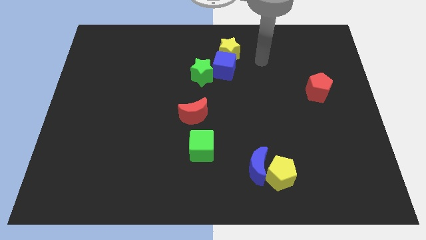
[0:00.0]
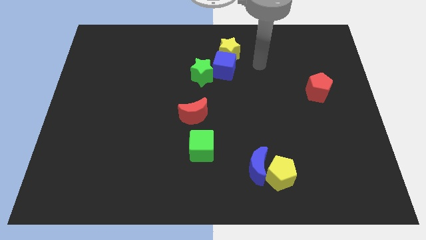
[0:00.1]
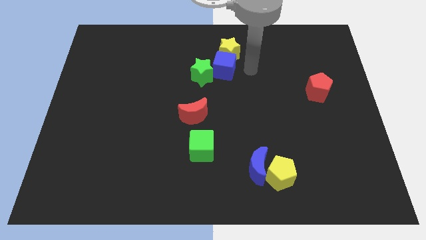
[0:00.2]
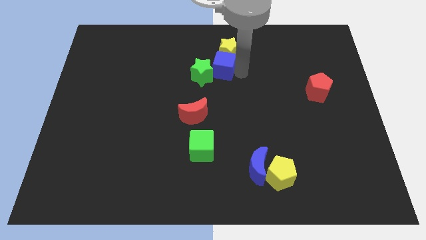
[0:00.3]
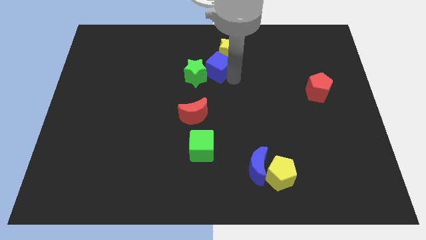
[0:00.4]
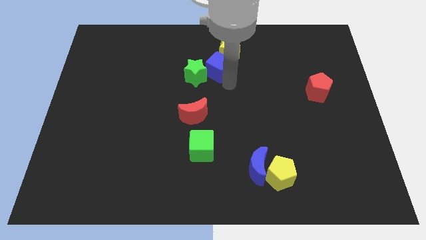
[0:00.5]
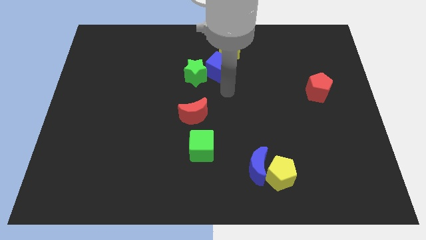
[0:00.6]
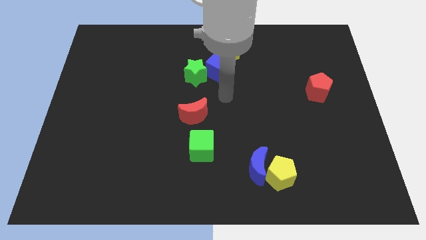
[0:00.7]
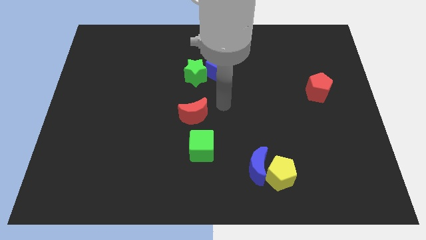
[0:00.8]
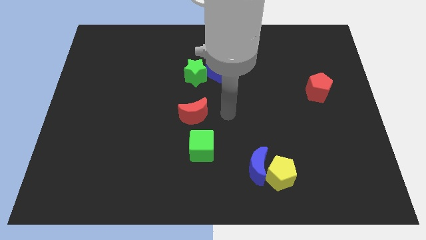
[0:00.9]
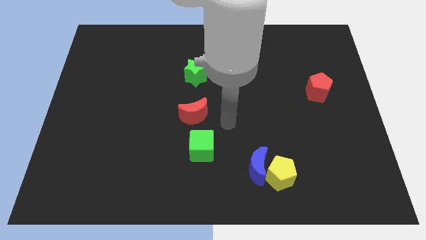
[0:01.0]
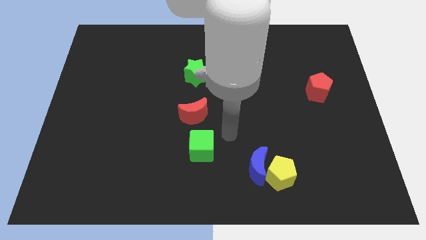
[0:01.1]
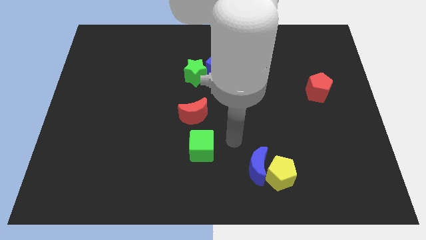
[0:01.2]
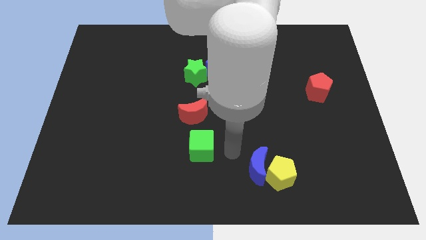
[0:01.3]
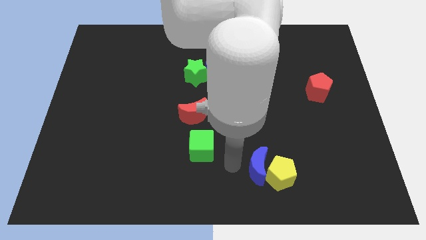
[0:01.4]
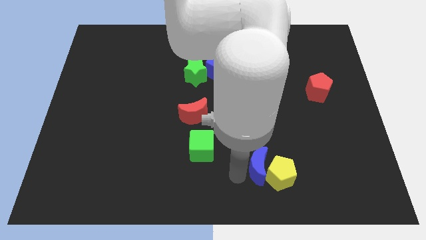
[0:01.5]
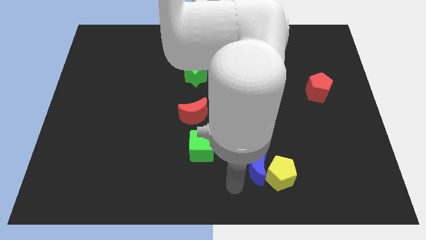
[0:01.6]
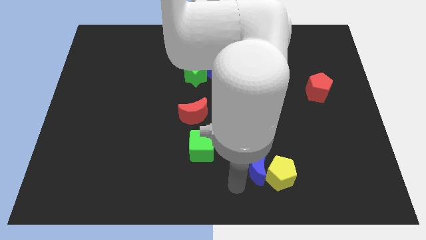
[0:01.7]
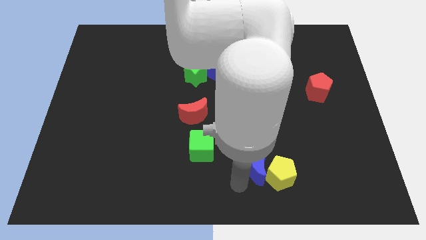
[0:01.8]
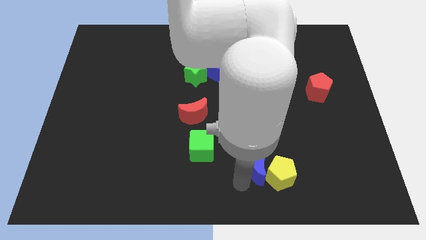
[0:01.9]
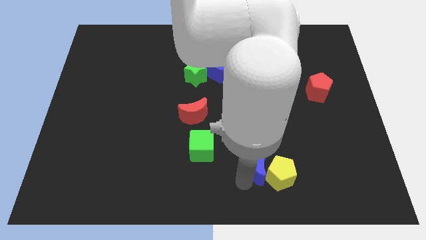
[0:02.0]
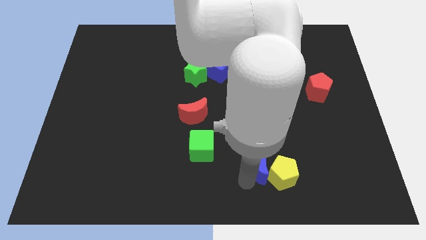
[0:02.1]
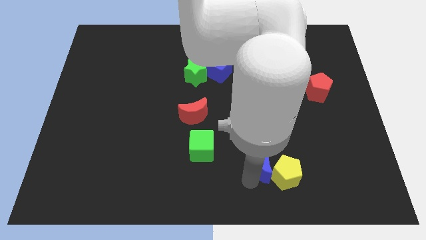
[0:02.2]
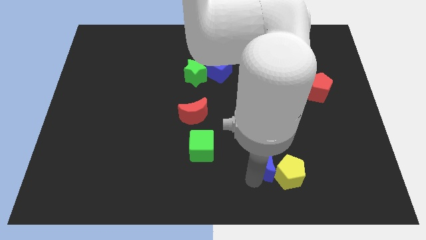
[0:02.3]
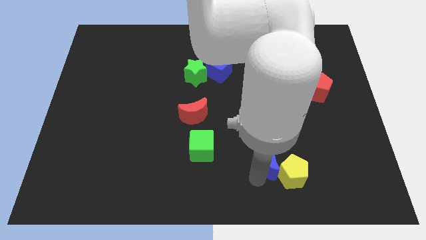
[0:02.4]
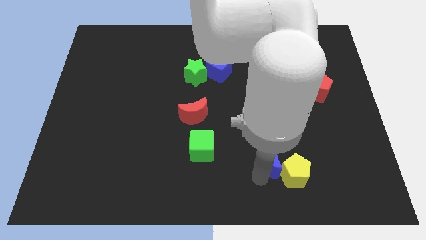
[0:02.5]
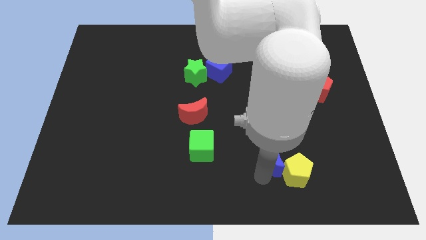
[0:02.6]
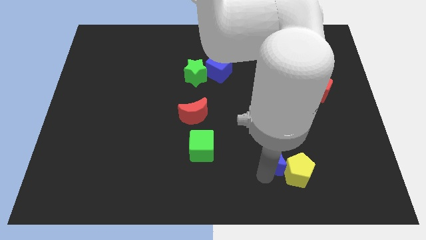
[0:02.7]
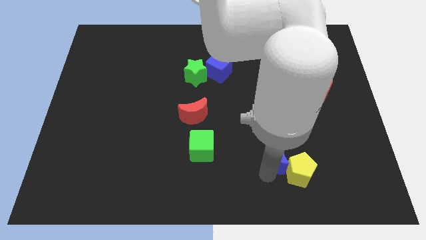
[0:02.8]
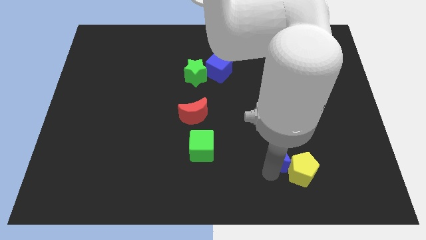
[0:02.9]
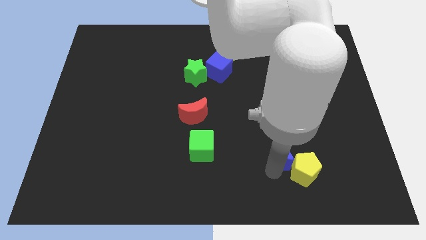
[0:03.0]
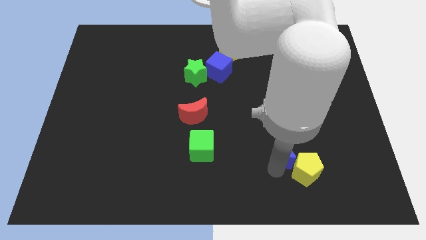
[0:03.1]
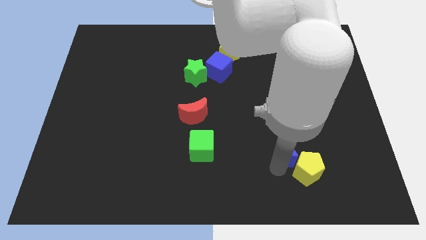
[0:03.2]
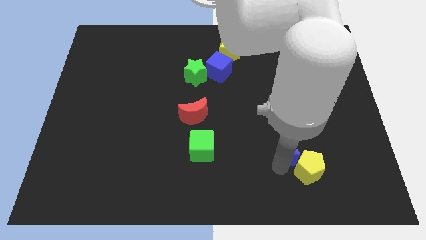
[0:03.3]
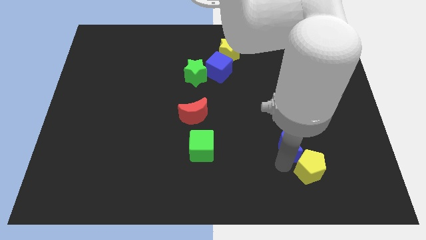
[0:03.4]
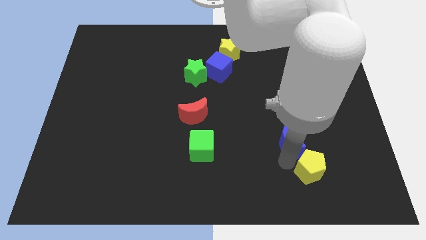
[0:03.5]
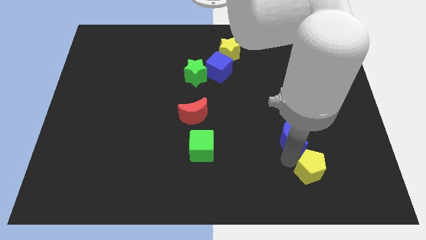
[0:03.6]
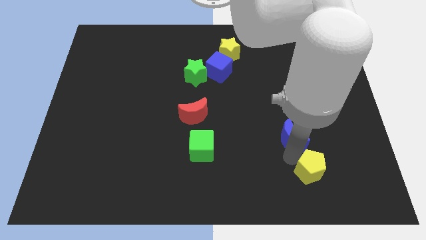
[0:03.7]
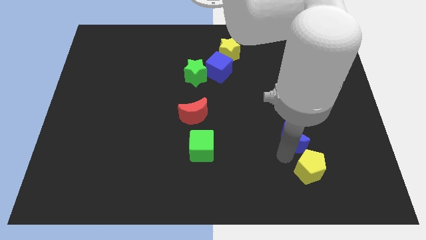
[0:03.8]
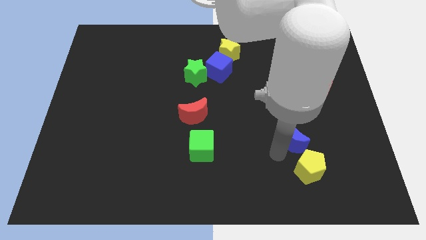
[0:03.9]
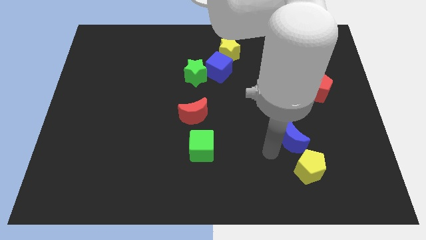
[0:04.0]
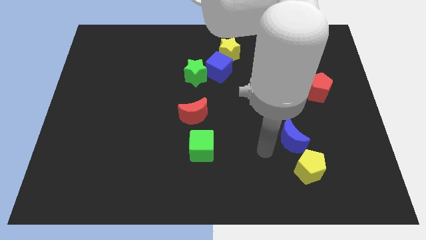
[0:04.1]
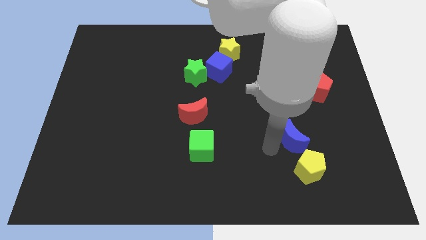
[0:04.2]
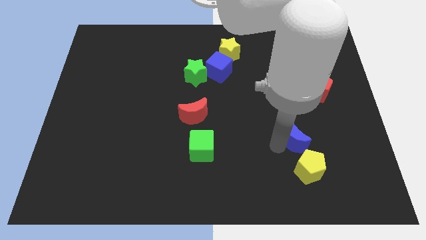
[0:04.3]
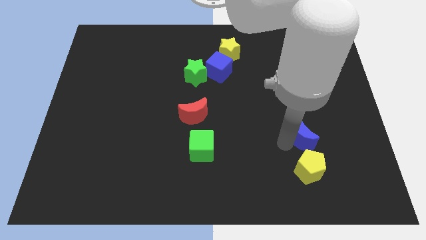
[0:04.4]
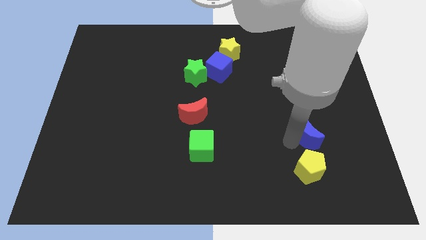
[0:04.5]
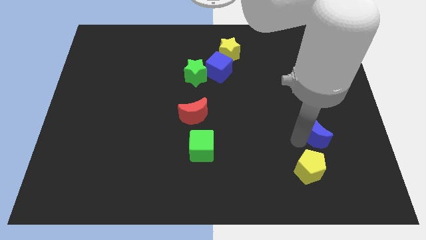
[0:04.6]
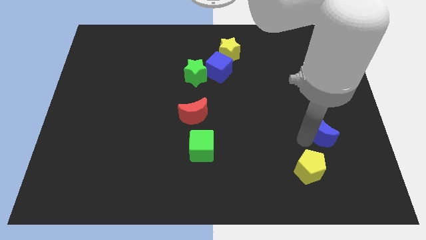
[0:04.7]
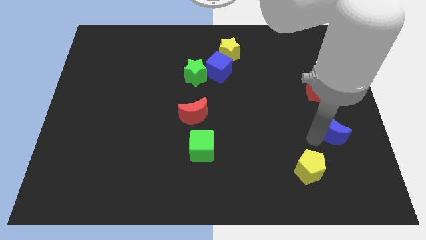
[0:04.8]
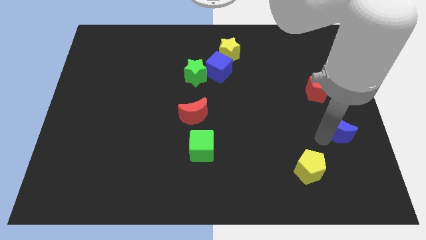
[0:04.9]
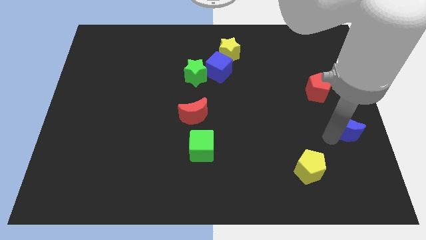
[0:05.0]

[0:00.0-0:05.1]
move the blue moon to the right side

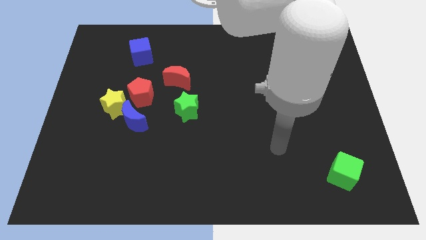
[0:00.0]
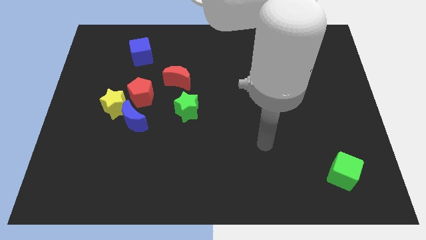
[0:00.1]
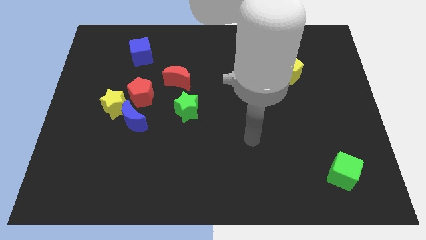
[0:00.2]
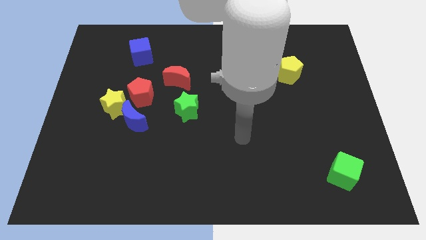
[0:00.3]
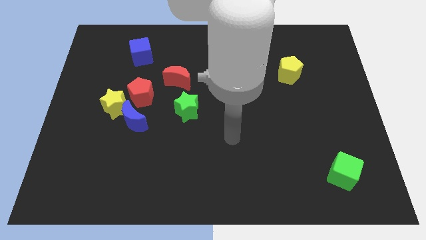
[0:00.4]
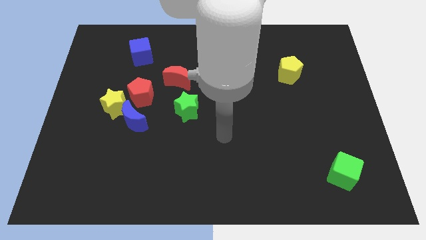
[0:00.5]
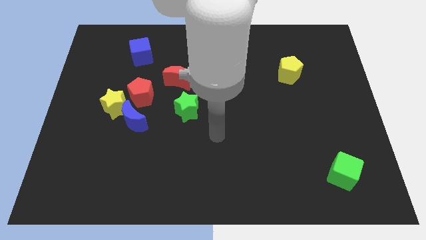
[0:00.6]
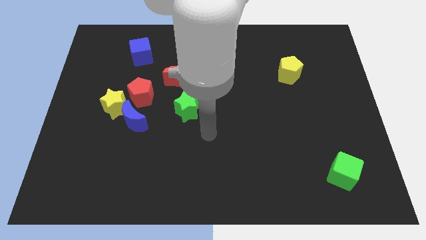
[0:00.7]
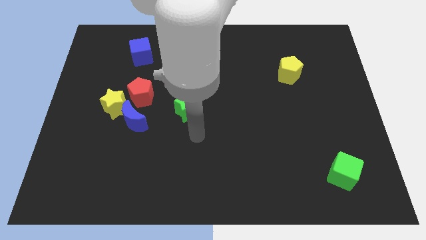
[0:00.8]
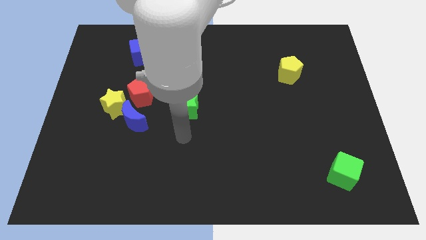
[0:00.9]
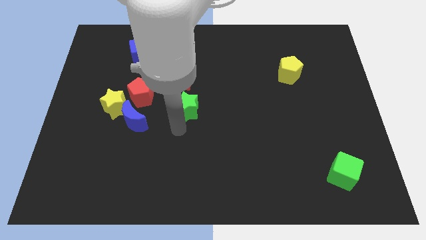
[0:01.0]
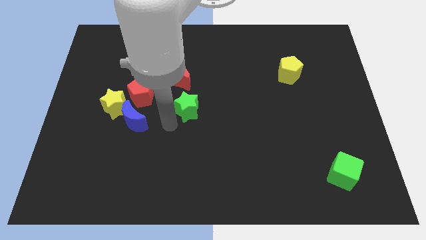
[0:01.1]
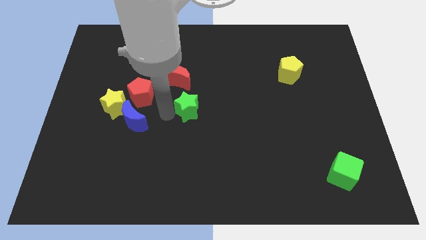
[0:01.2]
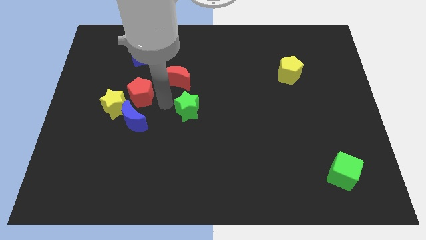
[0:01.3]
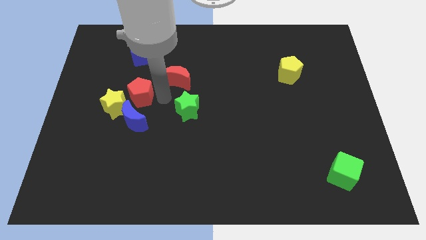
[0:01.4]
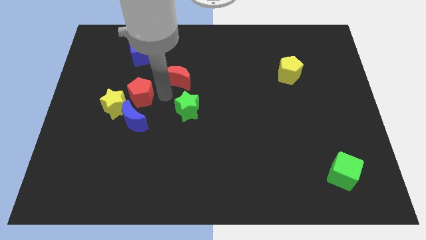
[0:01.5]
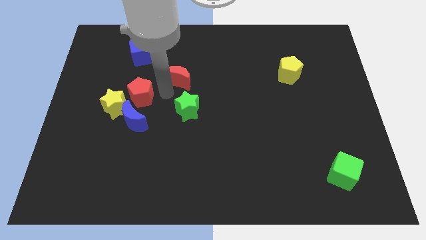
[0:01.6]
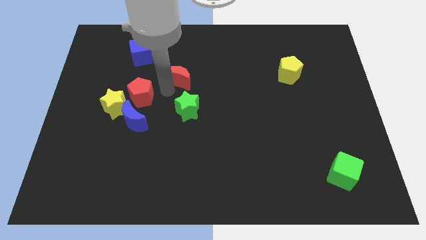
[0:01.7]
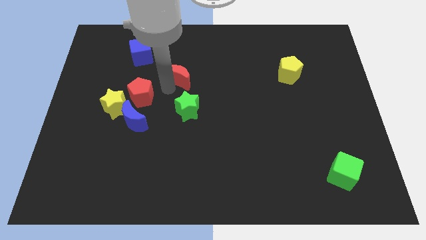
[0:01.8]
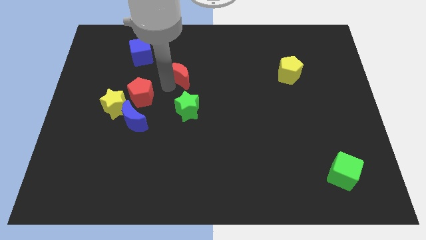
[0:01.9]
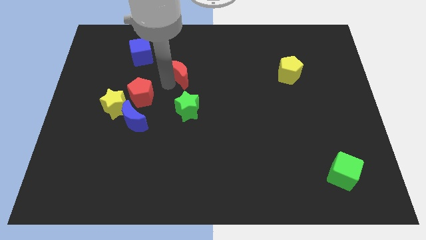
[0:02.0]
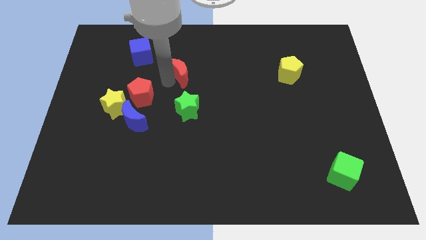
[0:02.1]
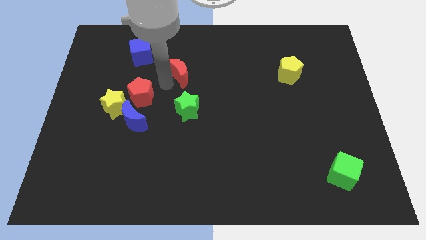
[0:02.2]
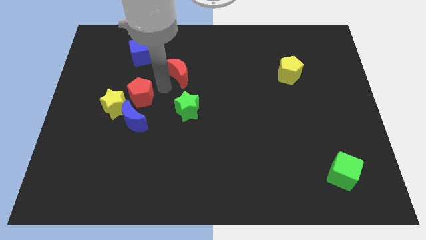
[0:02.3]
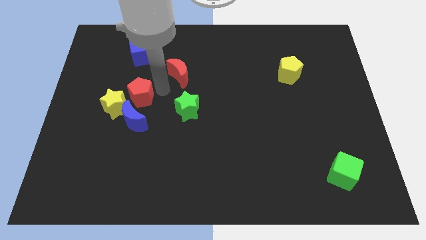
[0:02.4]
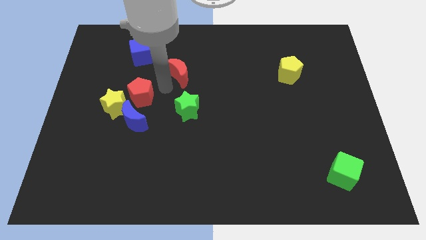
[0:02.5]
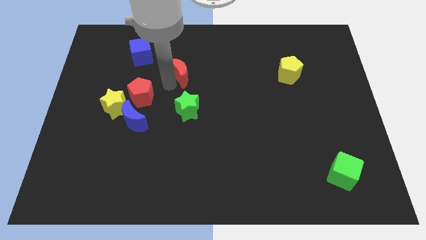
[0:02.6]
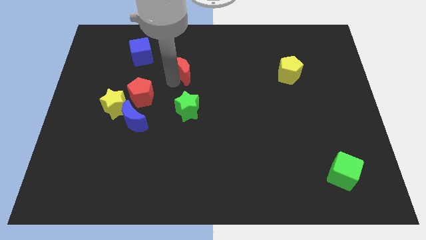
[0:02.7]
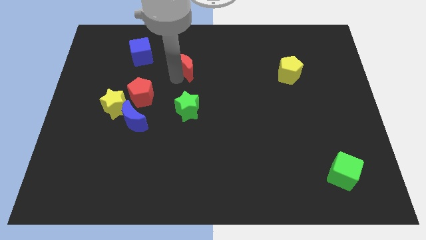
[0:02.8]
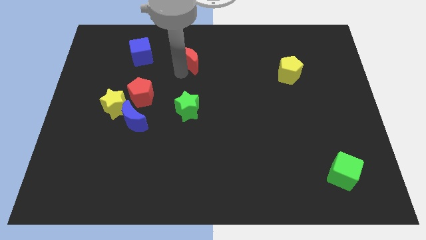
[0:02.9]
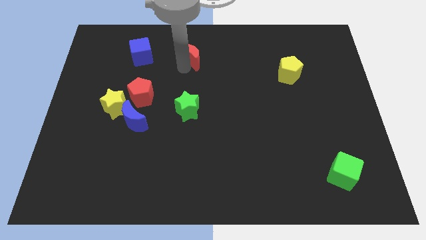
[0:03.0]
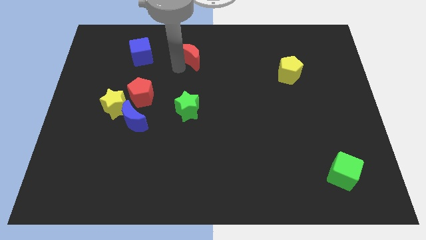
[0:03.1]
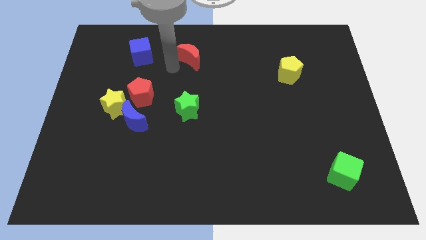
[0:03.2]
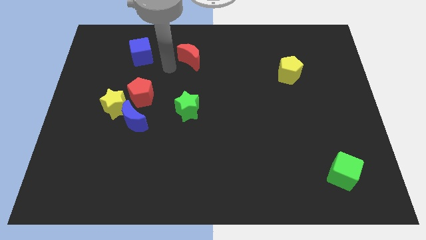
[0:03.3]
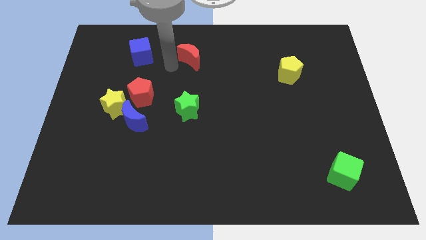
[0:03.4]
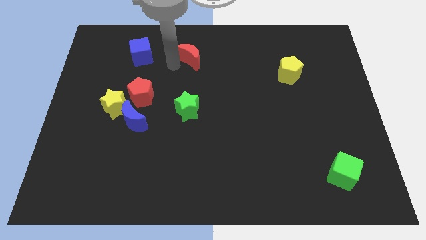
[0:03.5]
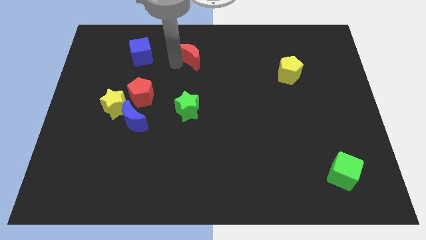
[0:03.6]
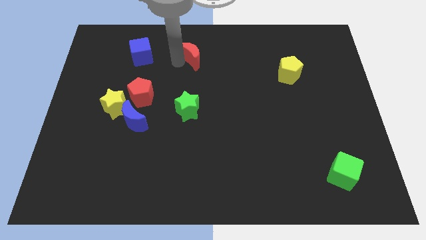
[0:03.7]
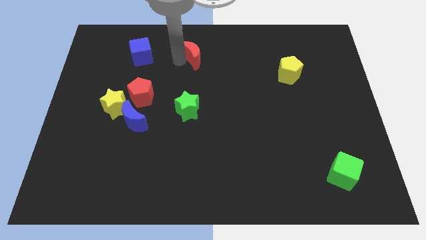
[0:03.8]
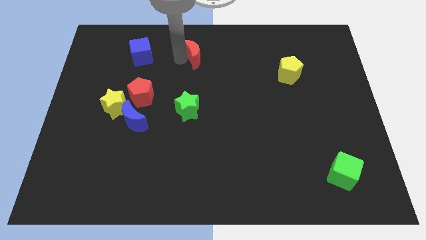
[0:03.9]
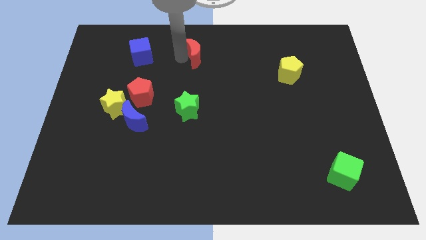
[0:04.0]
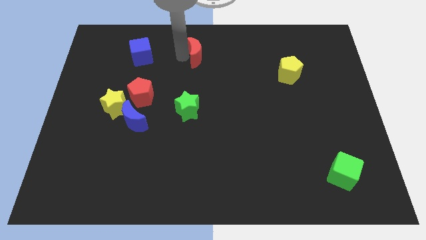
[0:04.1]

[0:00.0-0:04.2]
slide the red moon to the top
